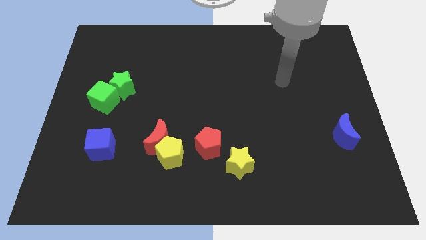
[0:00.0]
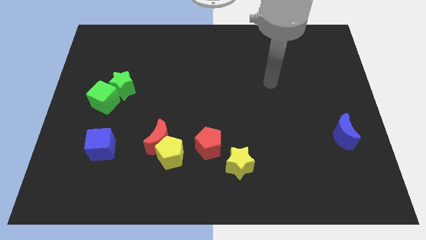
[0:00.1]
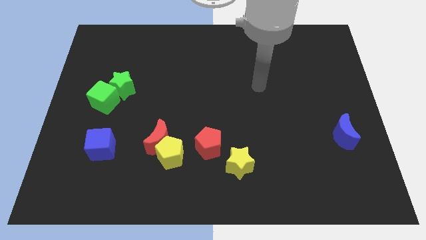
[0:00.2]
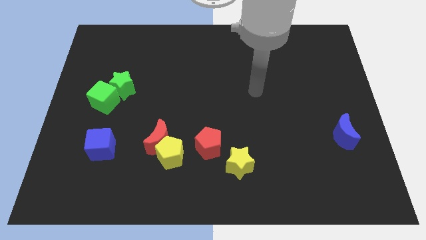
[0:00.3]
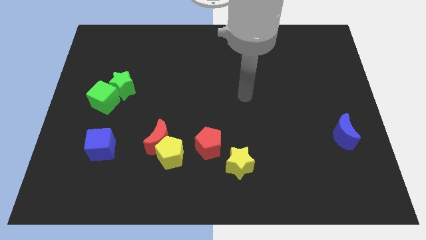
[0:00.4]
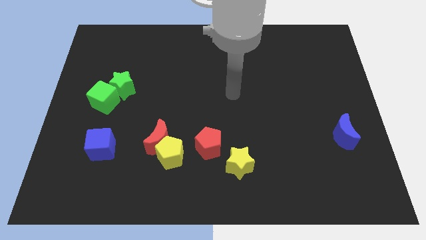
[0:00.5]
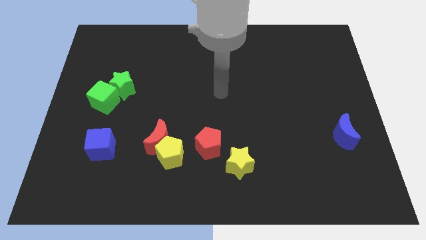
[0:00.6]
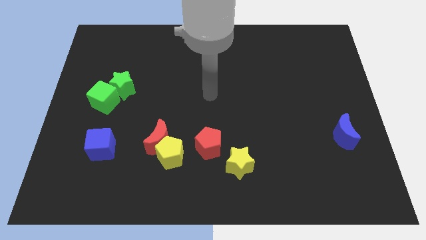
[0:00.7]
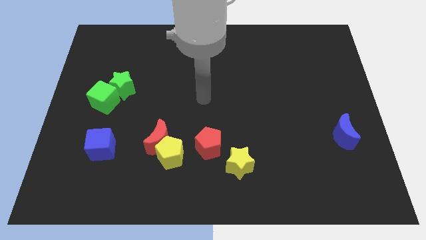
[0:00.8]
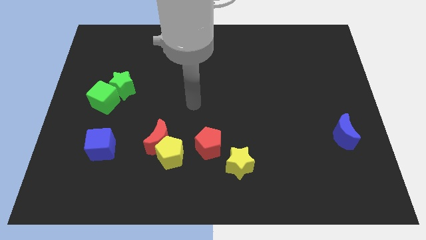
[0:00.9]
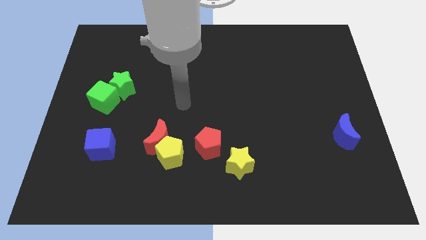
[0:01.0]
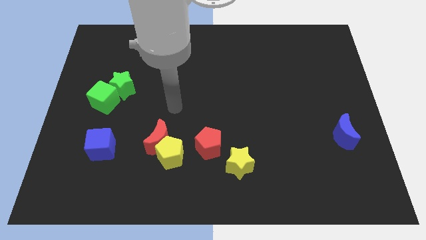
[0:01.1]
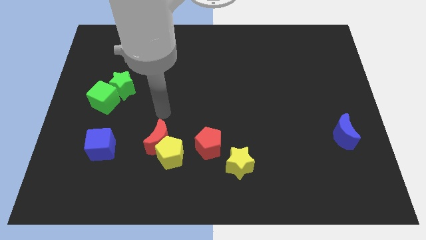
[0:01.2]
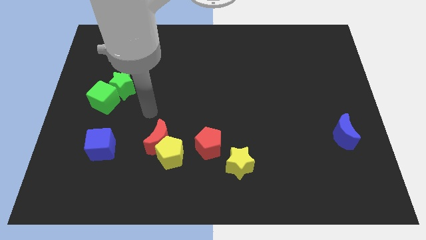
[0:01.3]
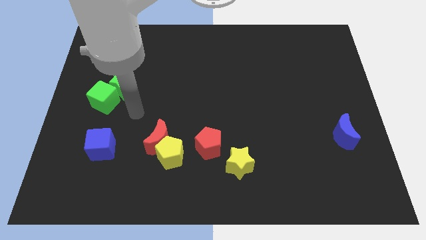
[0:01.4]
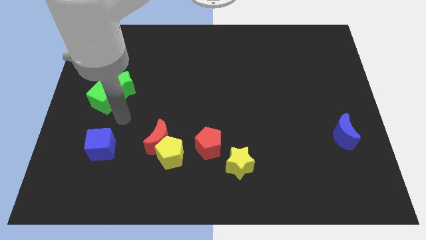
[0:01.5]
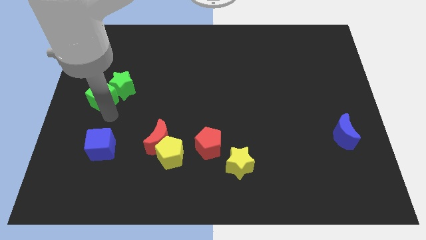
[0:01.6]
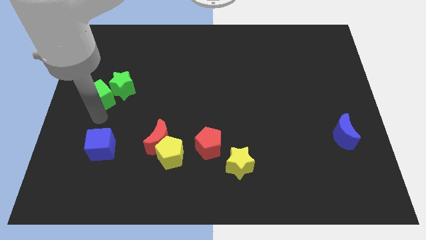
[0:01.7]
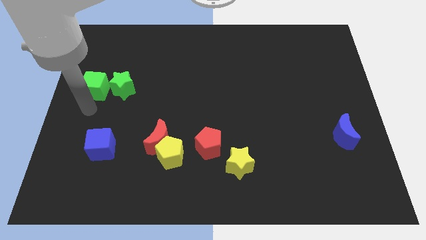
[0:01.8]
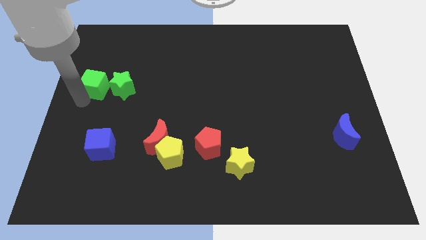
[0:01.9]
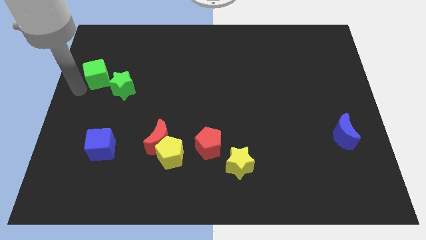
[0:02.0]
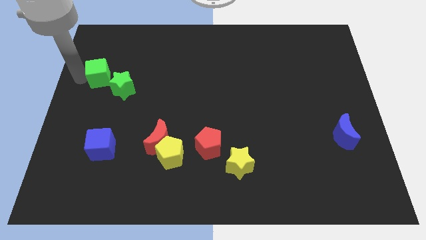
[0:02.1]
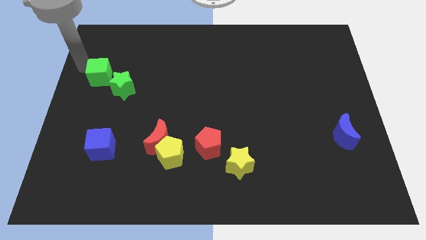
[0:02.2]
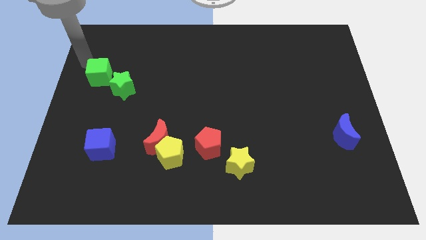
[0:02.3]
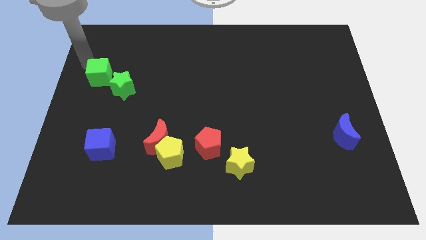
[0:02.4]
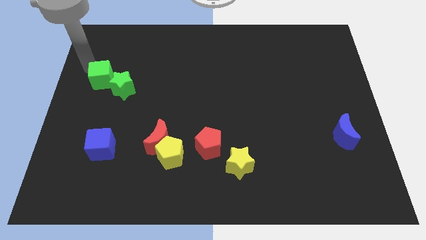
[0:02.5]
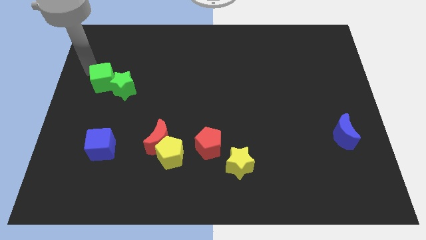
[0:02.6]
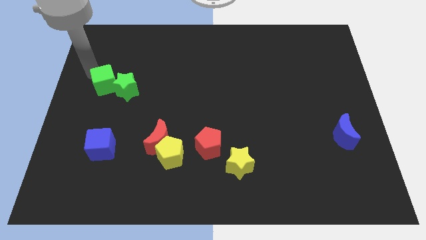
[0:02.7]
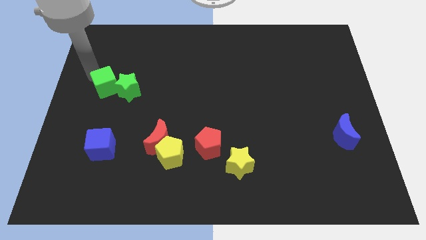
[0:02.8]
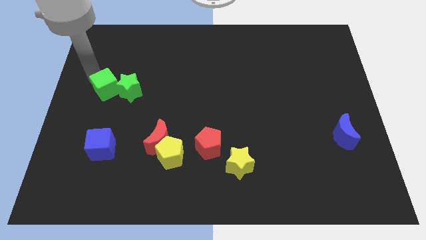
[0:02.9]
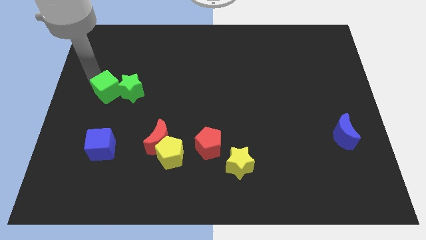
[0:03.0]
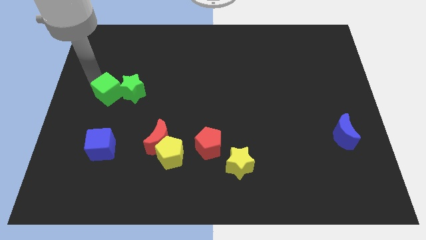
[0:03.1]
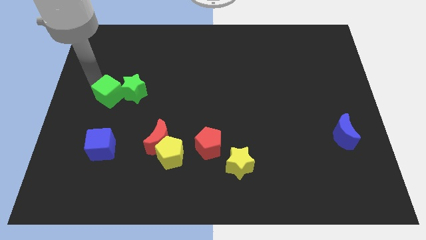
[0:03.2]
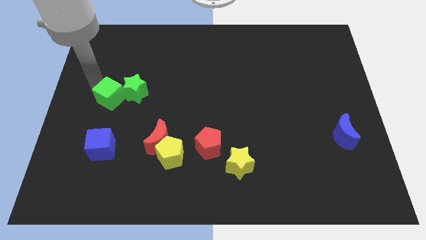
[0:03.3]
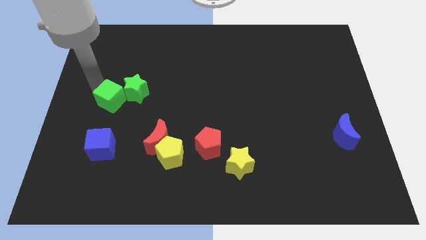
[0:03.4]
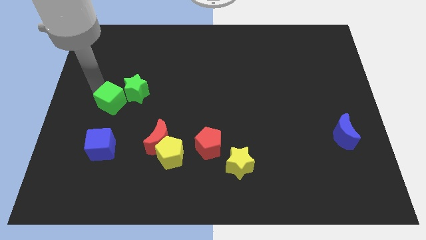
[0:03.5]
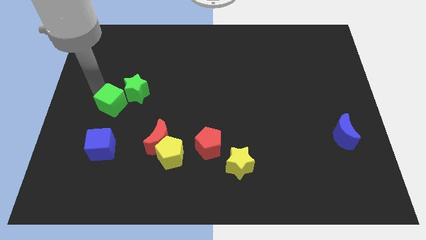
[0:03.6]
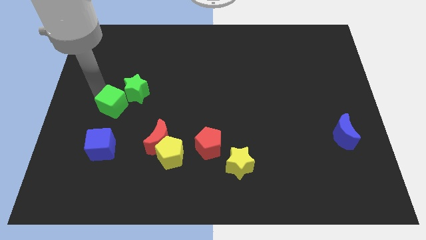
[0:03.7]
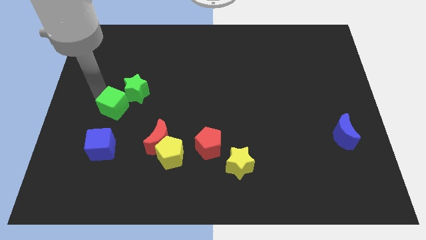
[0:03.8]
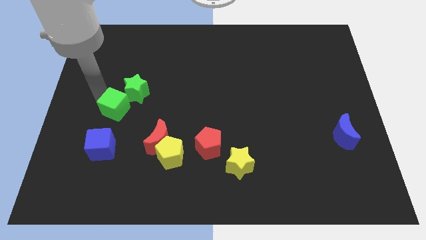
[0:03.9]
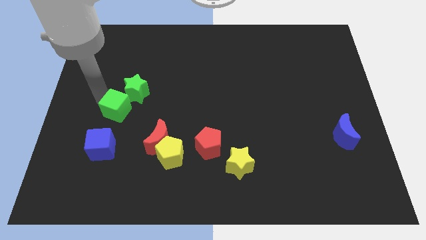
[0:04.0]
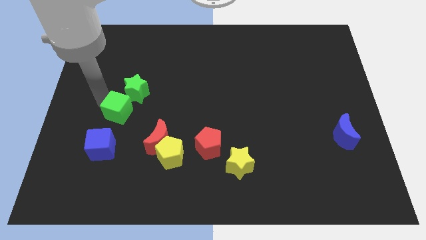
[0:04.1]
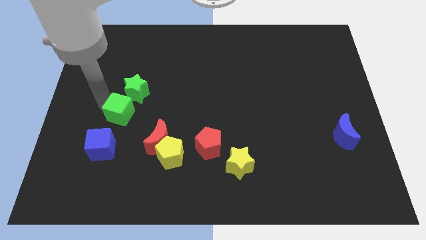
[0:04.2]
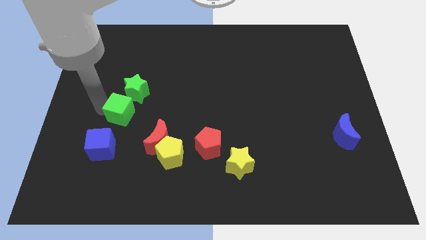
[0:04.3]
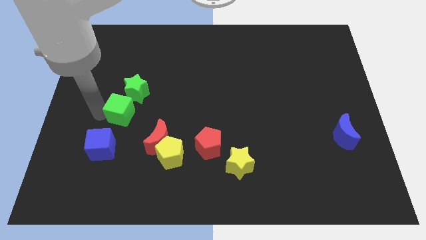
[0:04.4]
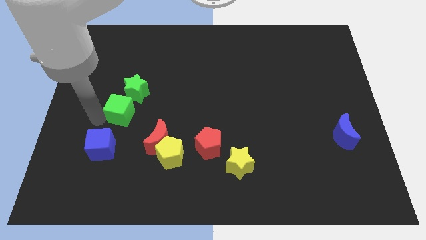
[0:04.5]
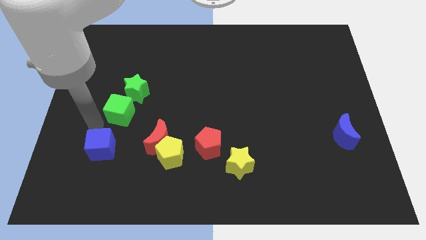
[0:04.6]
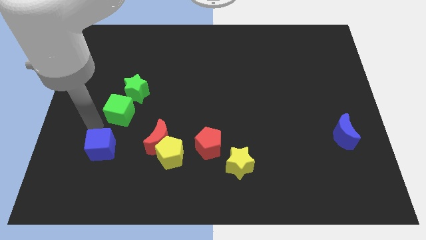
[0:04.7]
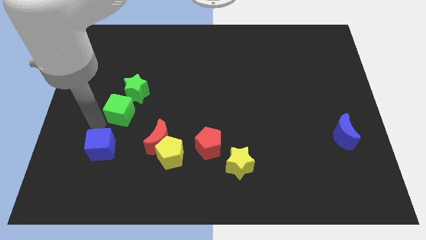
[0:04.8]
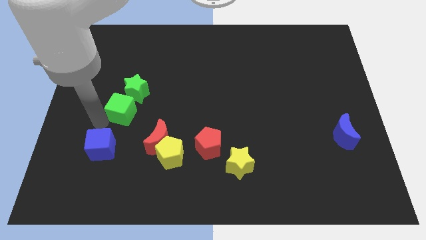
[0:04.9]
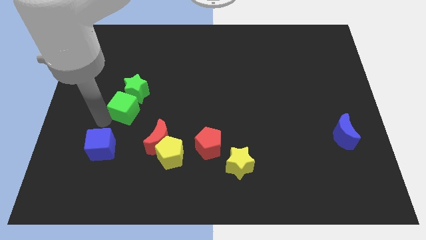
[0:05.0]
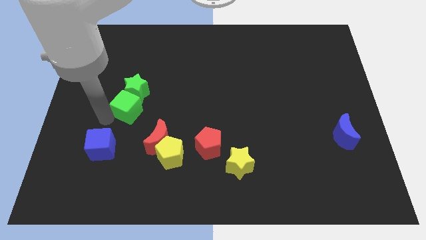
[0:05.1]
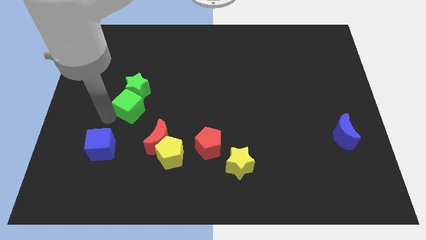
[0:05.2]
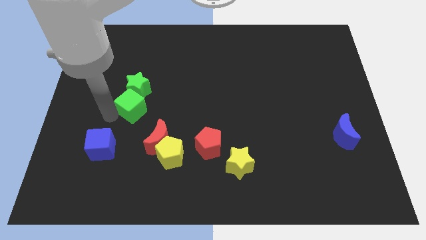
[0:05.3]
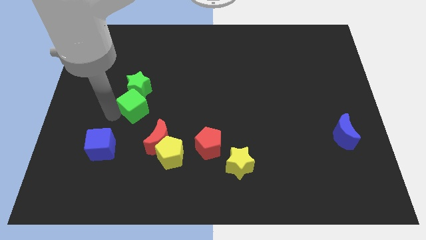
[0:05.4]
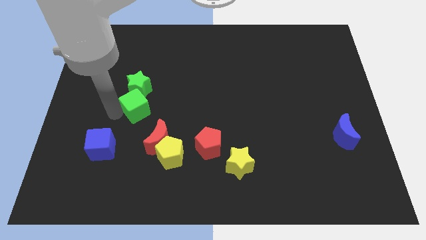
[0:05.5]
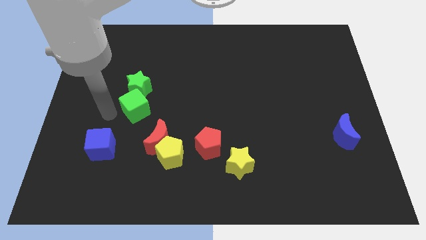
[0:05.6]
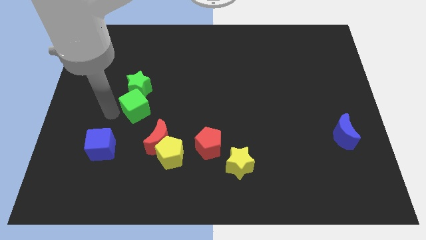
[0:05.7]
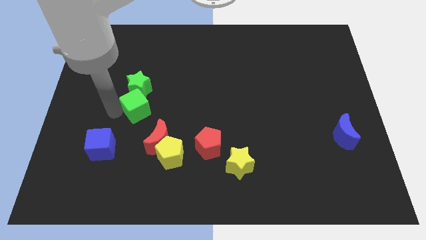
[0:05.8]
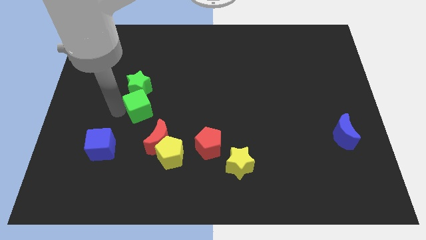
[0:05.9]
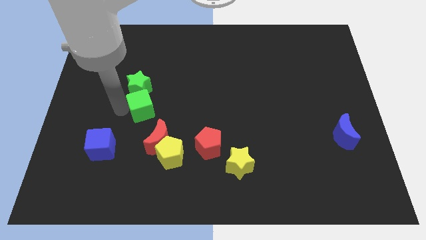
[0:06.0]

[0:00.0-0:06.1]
push the green cube to the top side of the red moon
